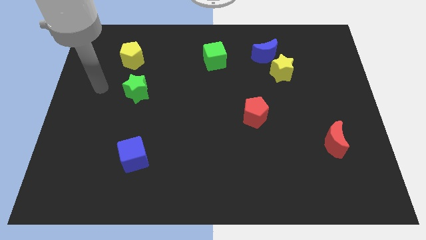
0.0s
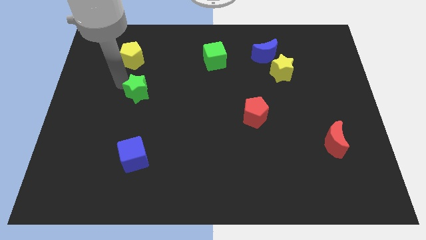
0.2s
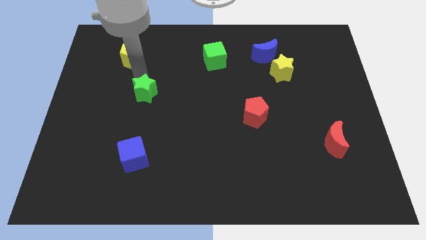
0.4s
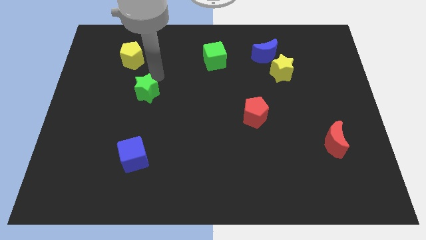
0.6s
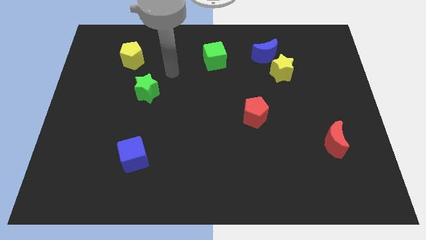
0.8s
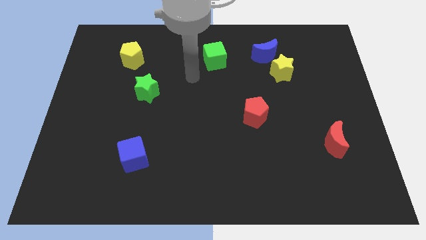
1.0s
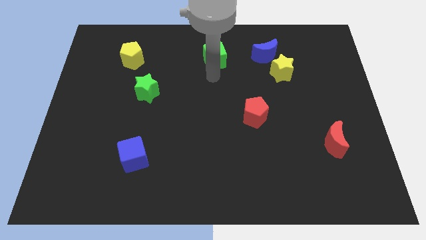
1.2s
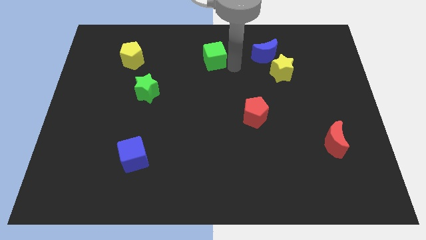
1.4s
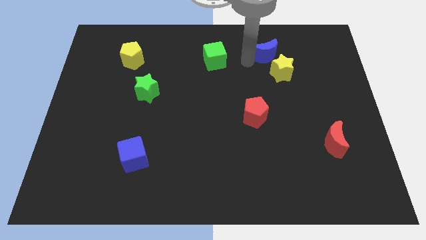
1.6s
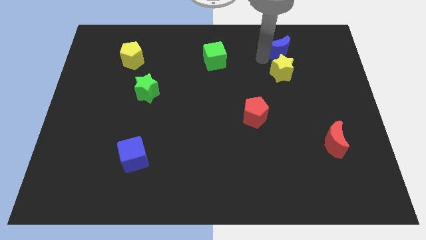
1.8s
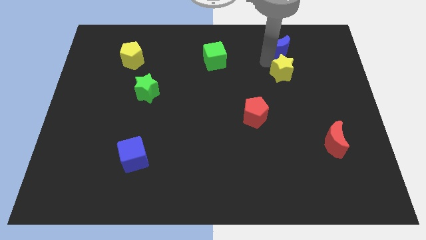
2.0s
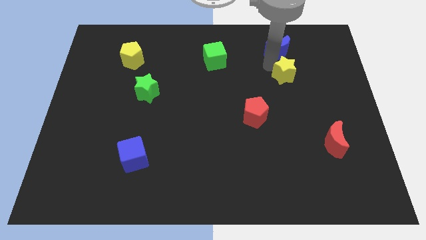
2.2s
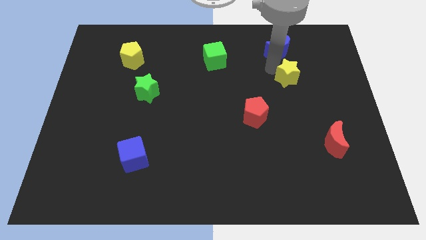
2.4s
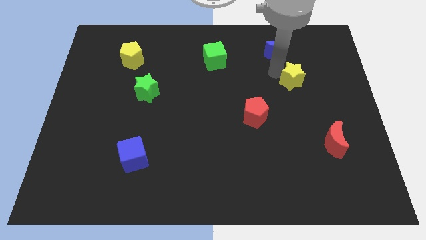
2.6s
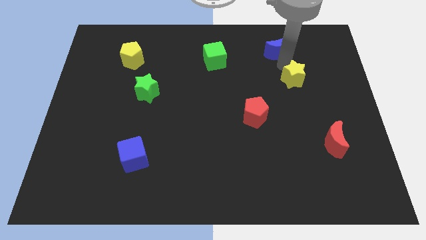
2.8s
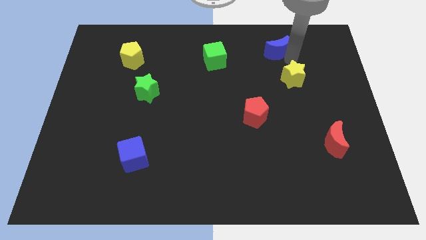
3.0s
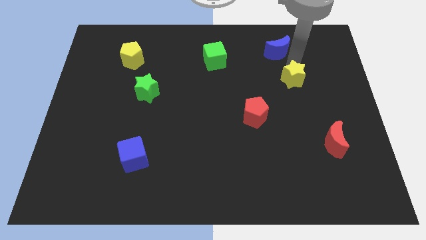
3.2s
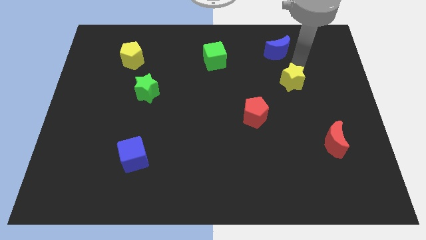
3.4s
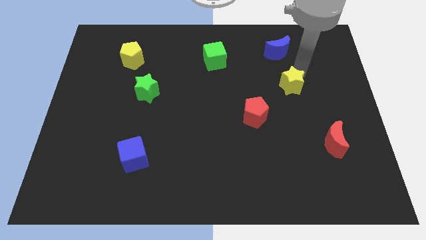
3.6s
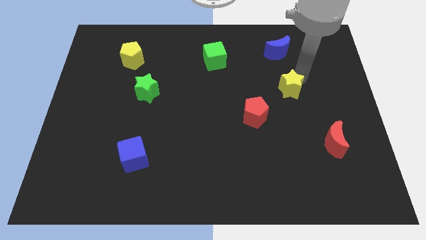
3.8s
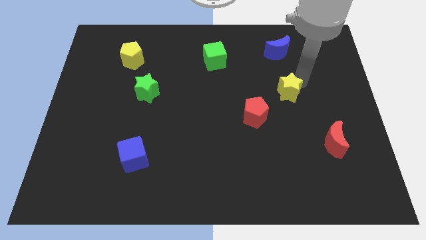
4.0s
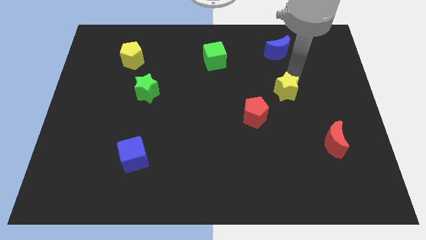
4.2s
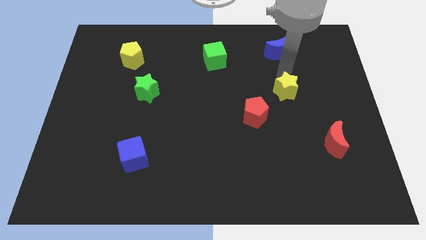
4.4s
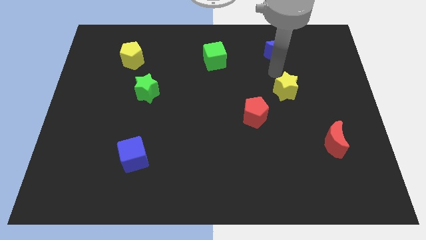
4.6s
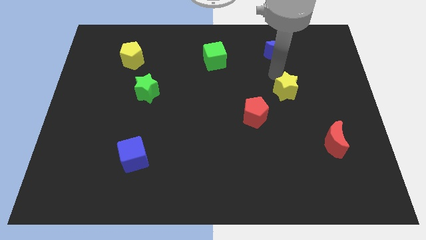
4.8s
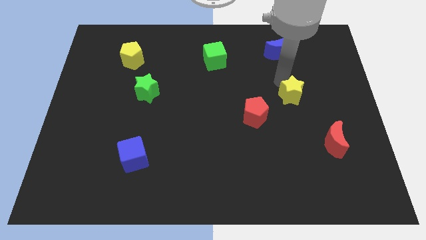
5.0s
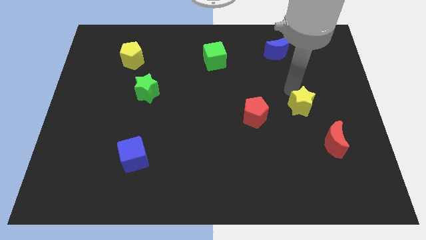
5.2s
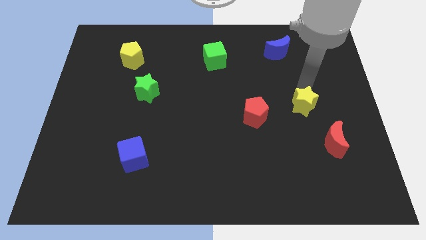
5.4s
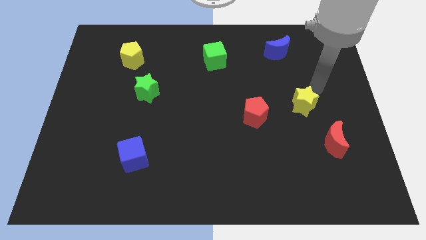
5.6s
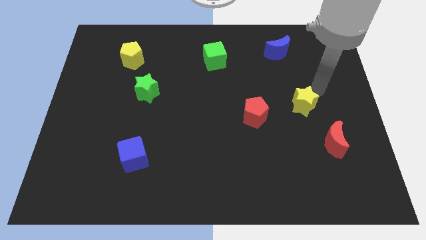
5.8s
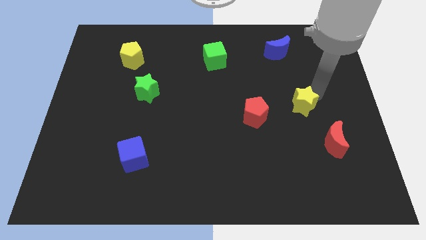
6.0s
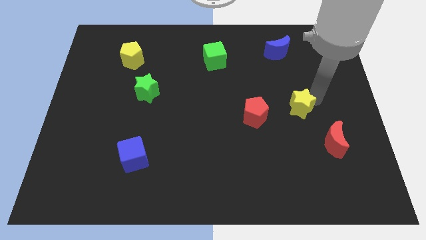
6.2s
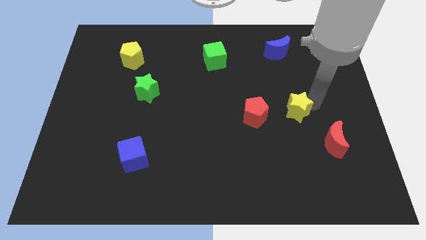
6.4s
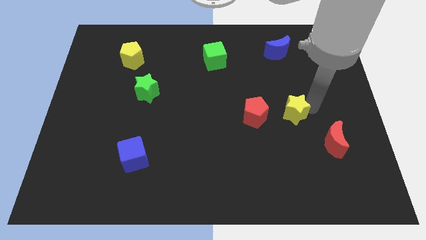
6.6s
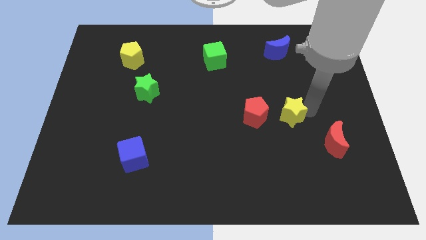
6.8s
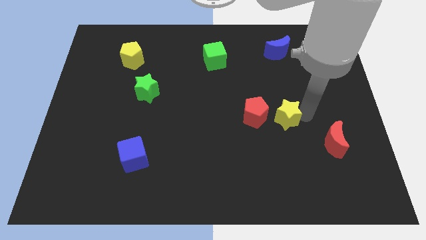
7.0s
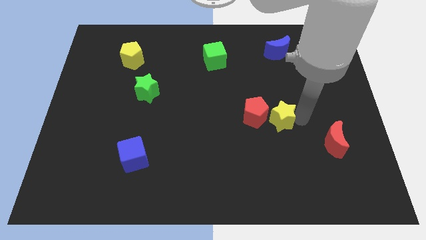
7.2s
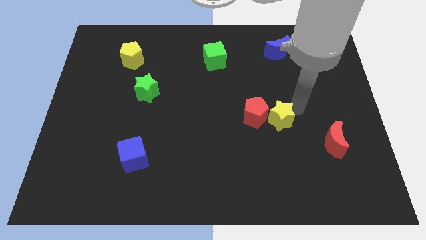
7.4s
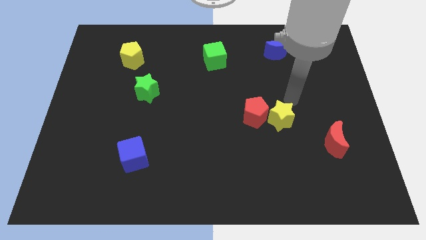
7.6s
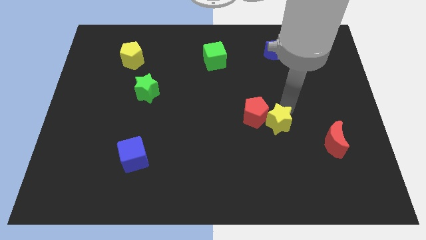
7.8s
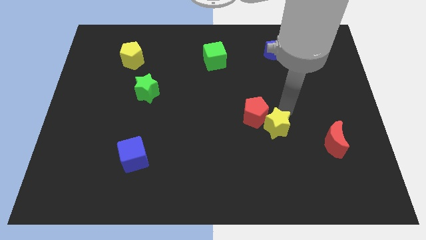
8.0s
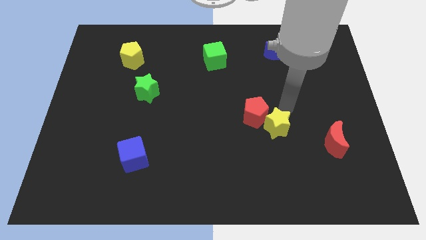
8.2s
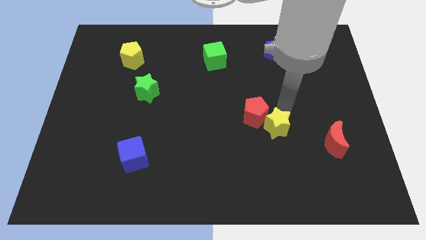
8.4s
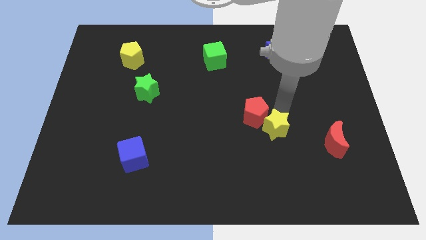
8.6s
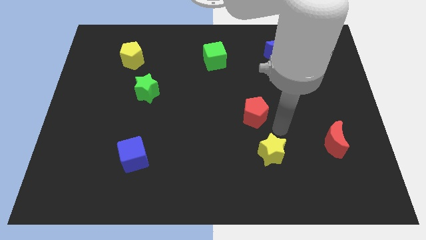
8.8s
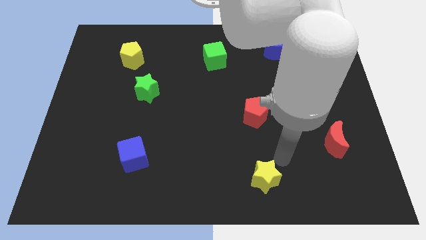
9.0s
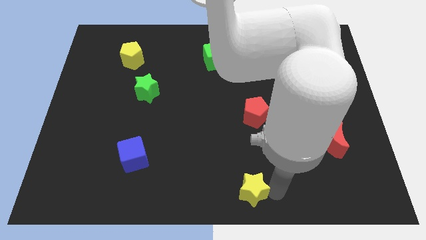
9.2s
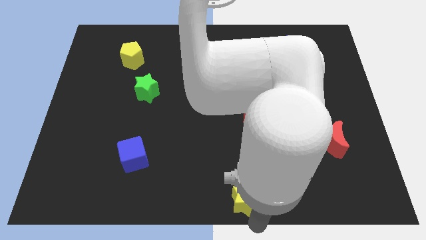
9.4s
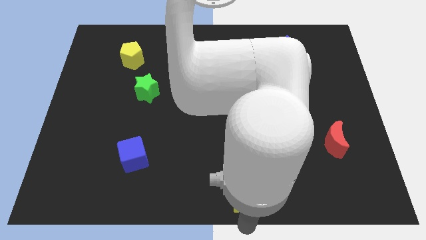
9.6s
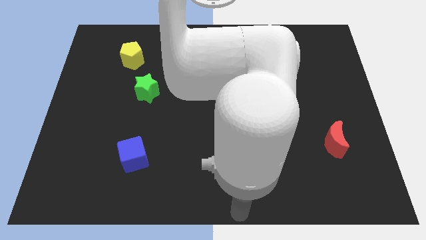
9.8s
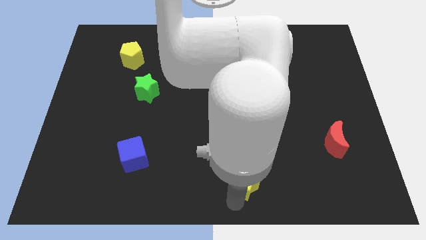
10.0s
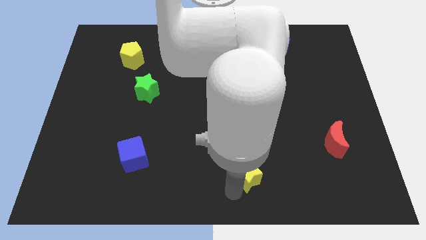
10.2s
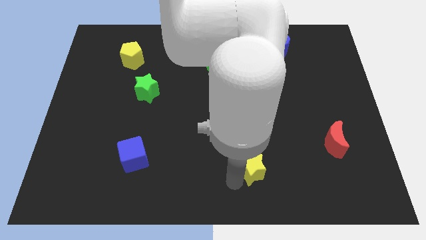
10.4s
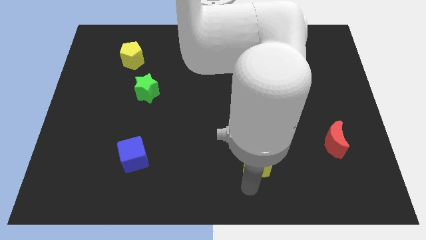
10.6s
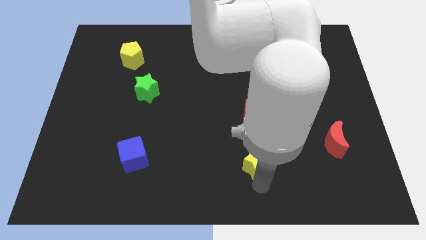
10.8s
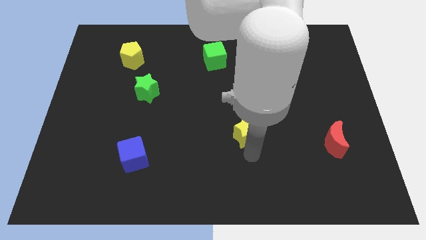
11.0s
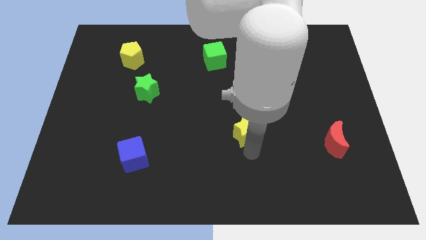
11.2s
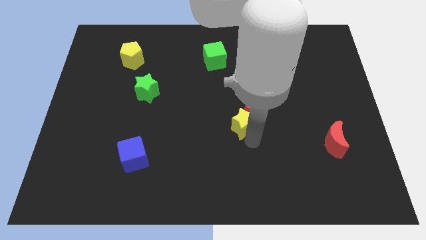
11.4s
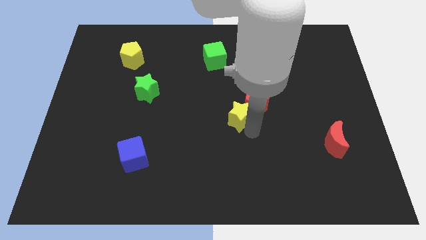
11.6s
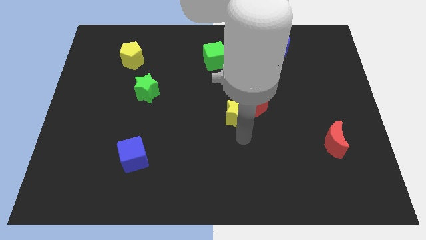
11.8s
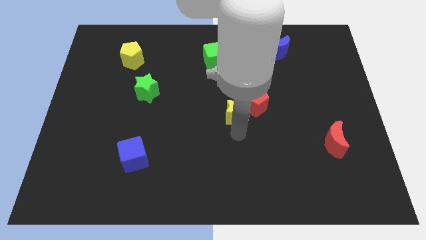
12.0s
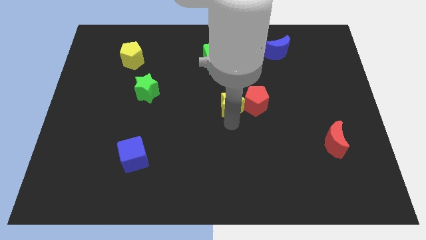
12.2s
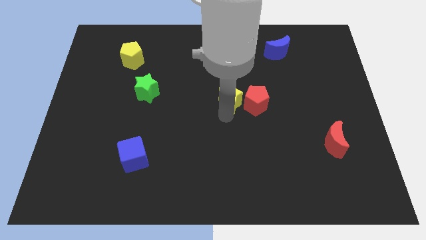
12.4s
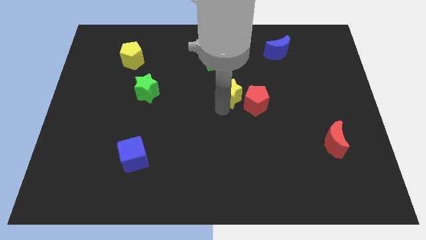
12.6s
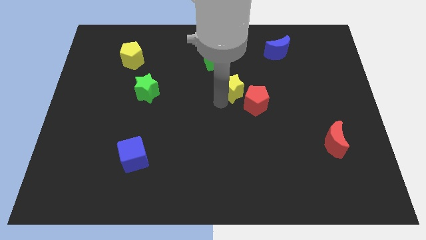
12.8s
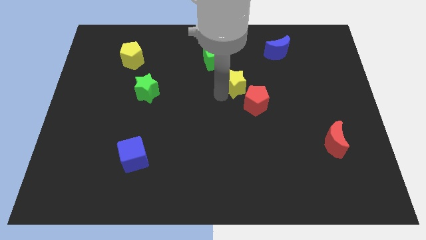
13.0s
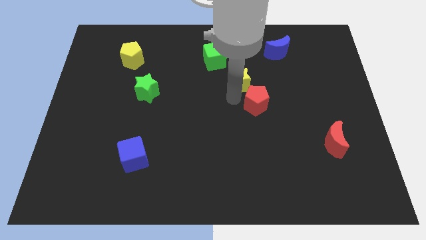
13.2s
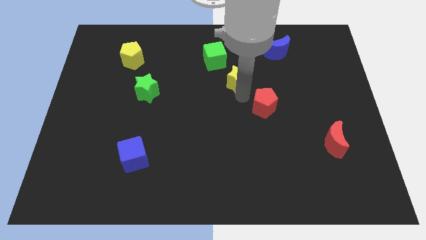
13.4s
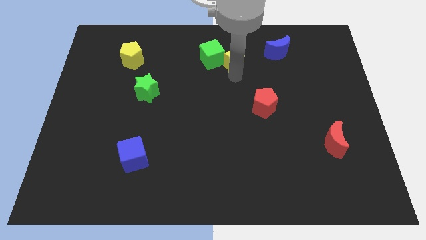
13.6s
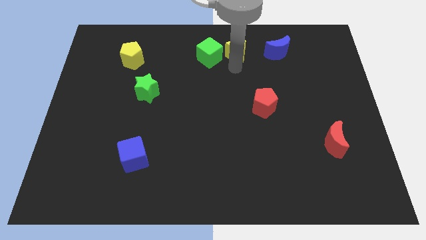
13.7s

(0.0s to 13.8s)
slide the yellow star to the top side
